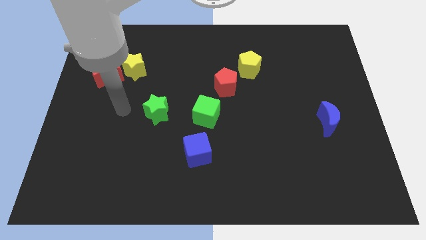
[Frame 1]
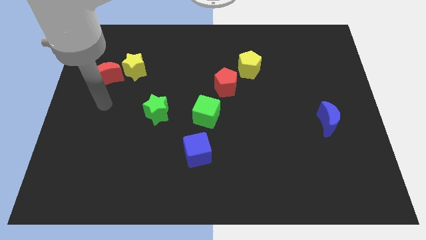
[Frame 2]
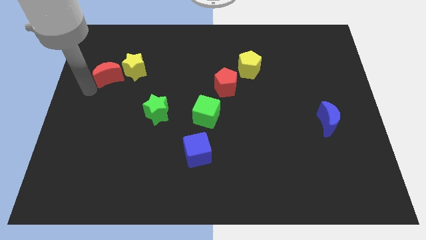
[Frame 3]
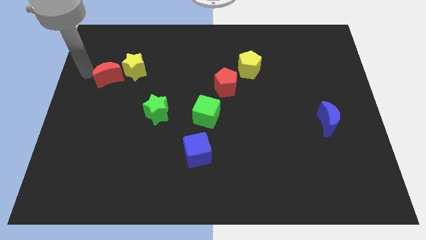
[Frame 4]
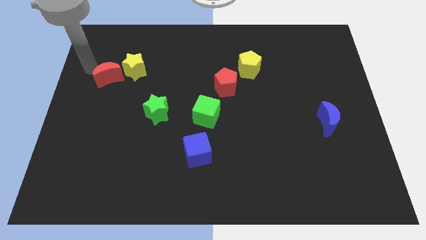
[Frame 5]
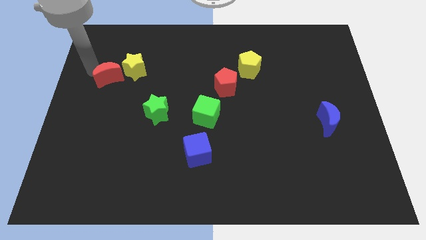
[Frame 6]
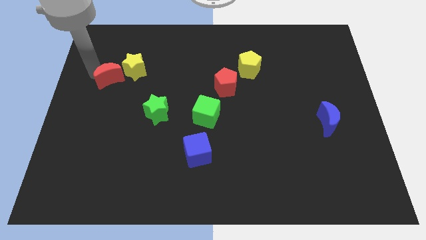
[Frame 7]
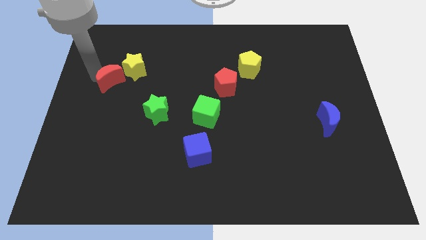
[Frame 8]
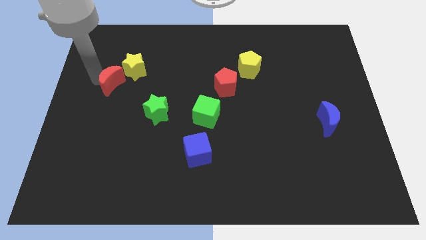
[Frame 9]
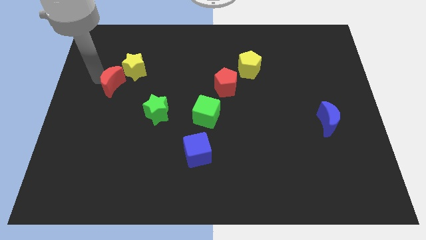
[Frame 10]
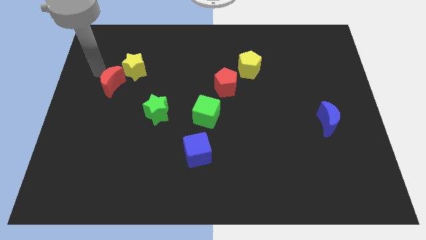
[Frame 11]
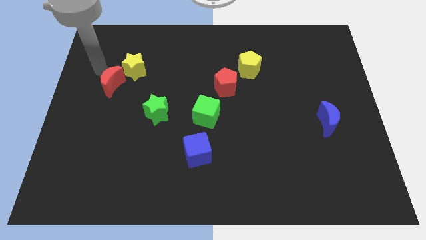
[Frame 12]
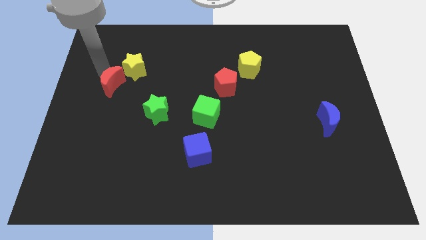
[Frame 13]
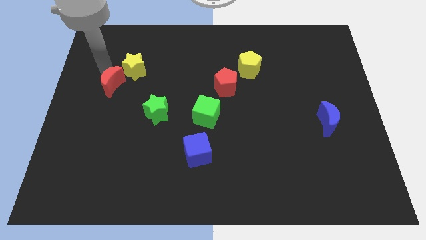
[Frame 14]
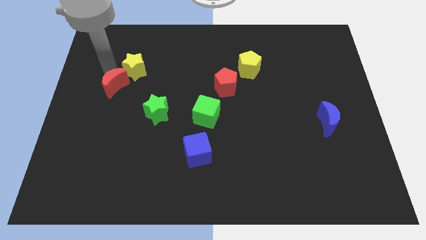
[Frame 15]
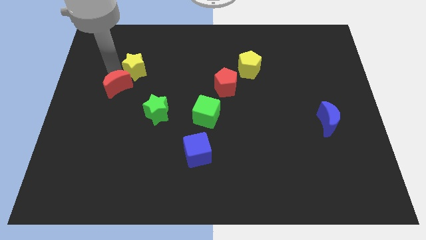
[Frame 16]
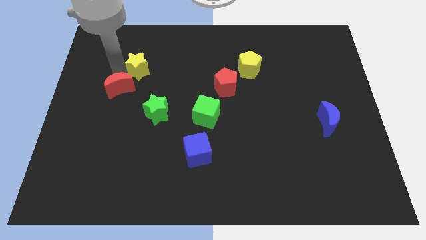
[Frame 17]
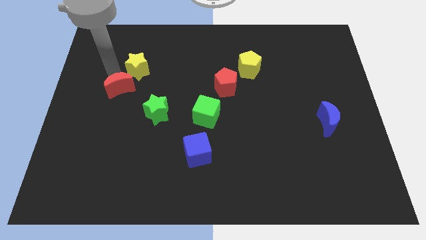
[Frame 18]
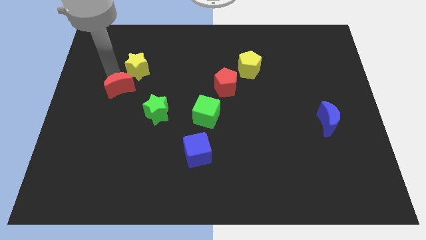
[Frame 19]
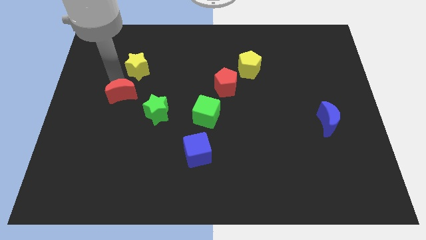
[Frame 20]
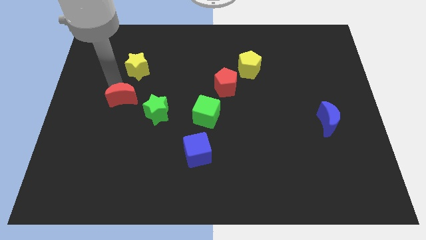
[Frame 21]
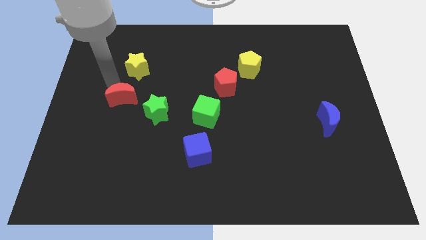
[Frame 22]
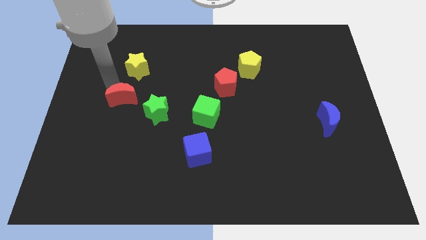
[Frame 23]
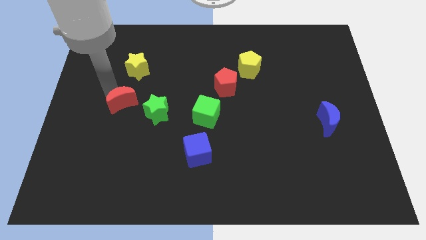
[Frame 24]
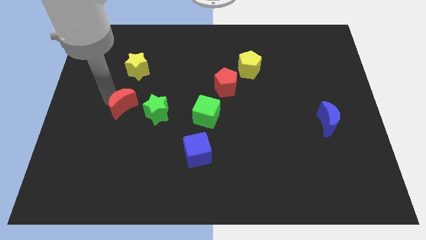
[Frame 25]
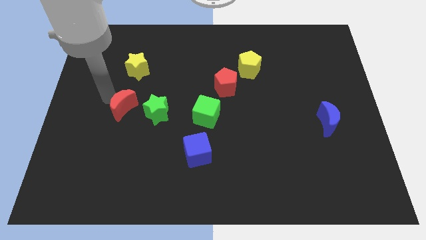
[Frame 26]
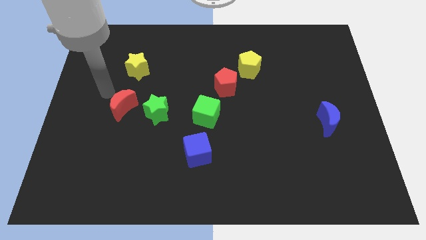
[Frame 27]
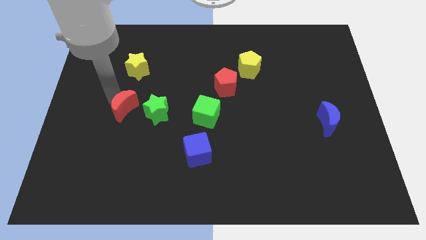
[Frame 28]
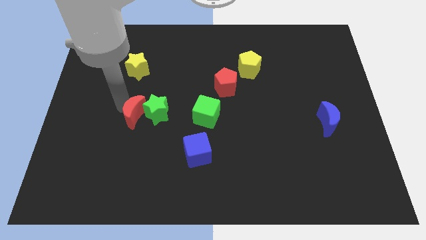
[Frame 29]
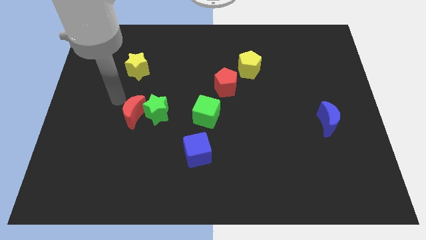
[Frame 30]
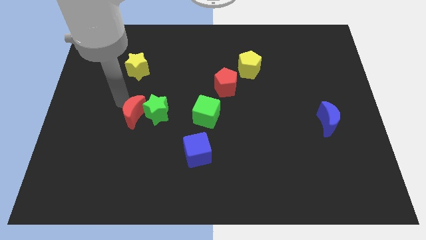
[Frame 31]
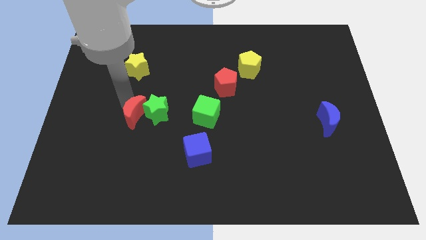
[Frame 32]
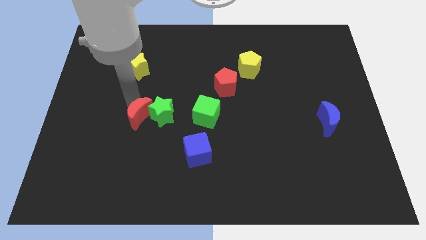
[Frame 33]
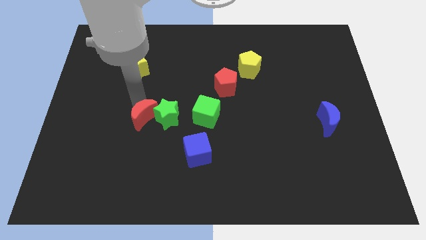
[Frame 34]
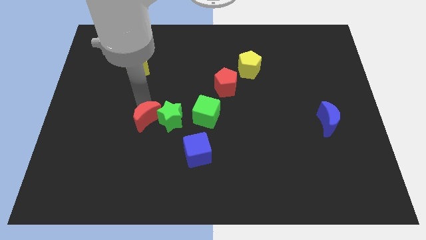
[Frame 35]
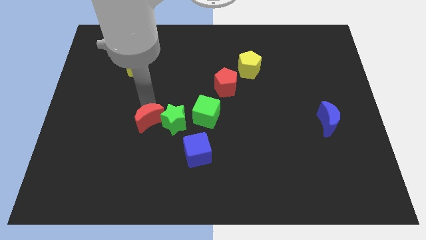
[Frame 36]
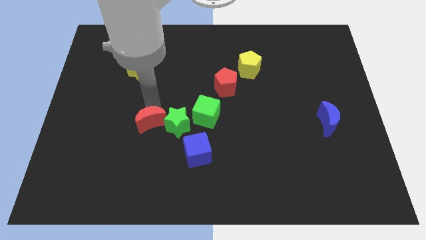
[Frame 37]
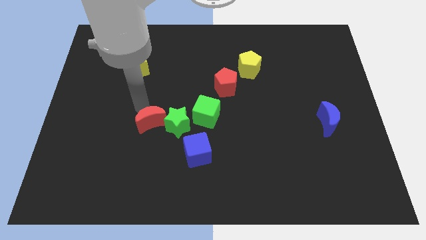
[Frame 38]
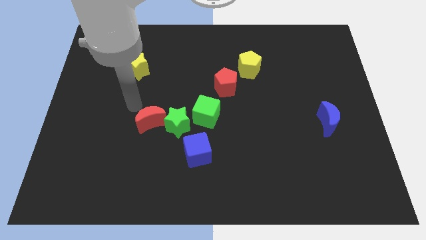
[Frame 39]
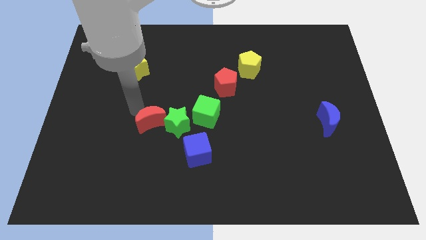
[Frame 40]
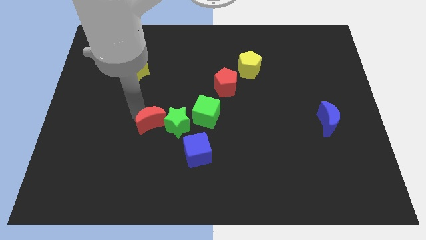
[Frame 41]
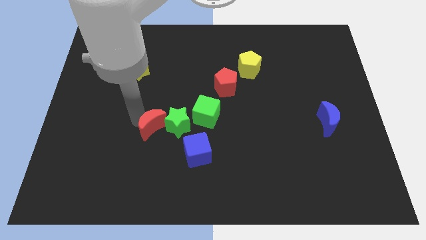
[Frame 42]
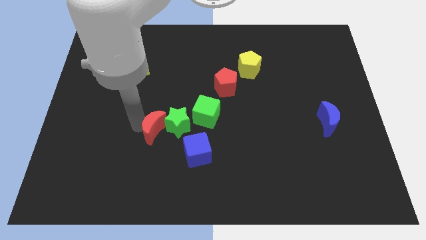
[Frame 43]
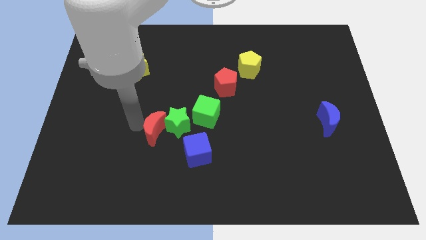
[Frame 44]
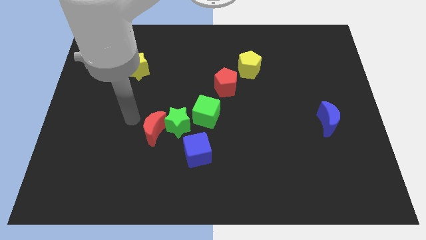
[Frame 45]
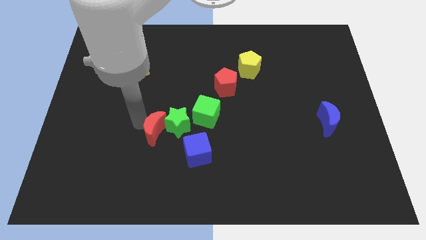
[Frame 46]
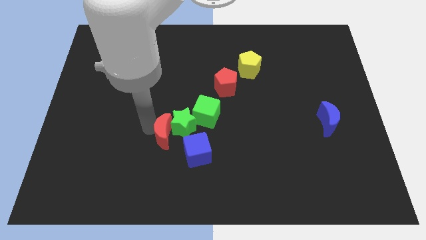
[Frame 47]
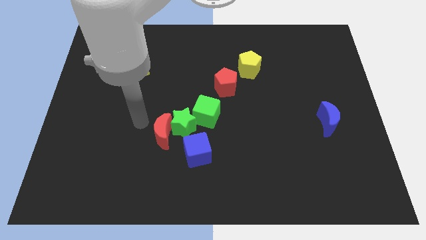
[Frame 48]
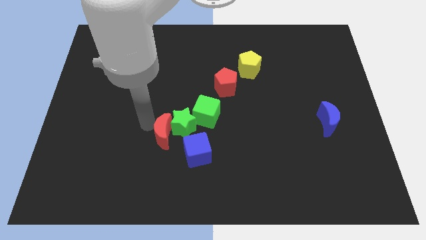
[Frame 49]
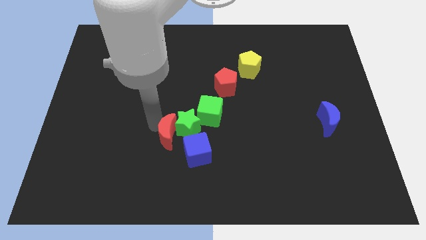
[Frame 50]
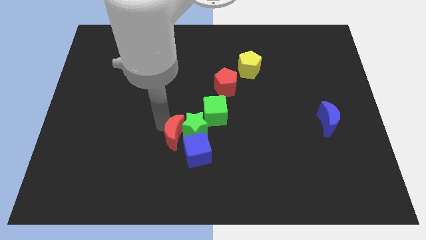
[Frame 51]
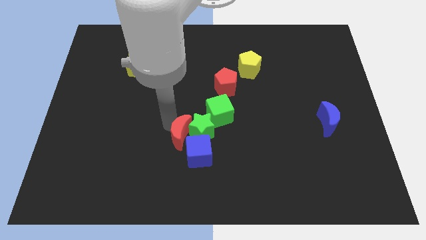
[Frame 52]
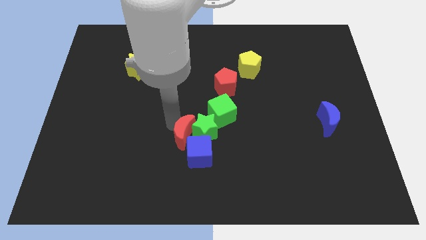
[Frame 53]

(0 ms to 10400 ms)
slide the red moon to the blue cube

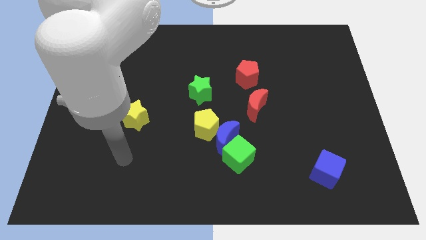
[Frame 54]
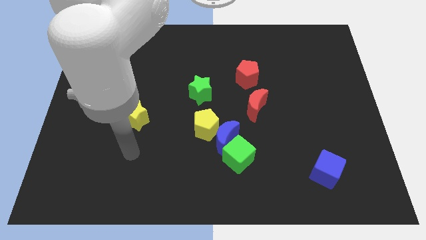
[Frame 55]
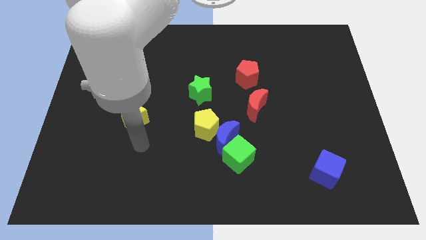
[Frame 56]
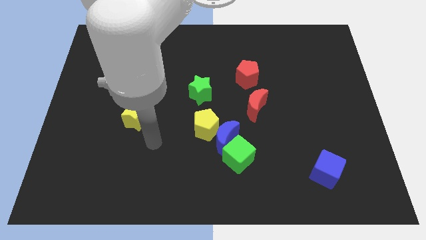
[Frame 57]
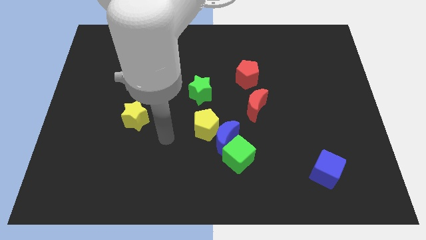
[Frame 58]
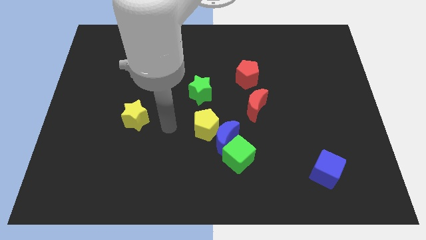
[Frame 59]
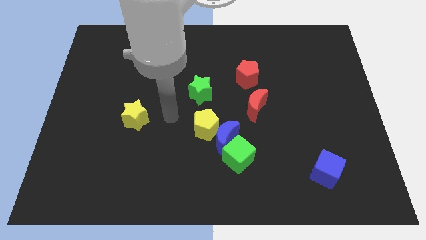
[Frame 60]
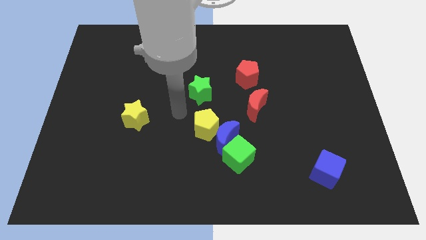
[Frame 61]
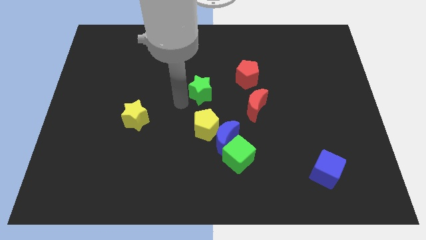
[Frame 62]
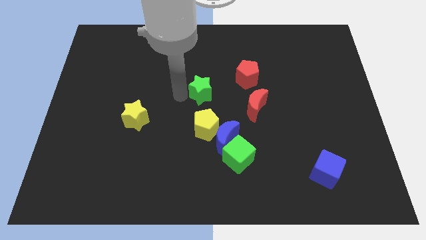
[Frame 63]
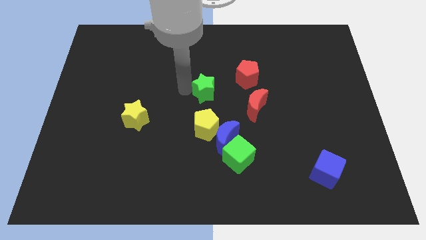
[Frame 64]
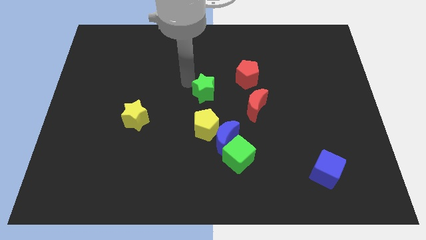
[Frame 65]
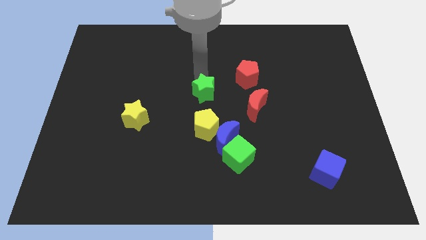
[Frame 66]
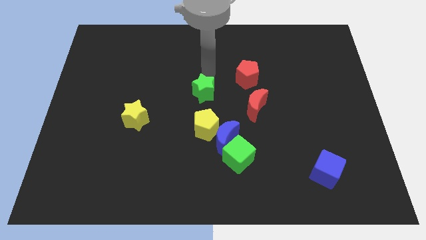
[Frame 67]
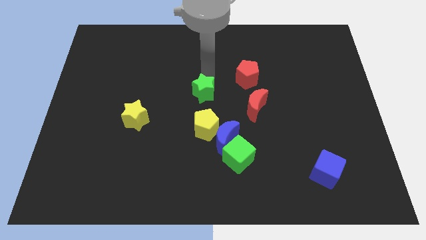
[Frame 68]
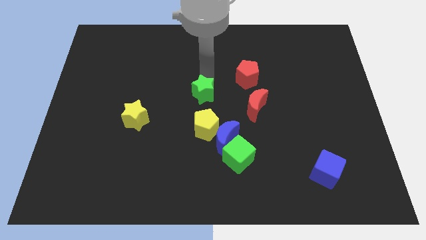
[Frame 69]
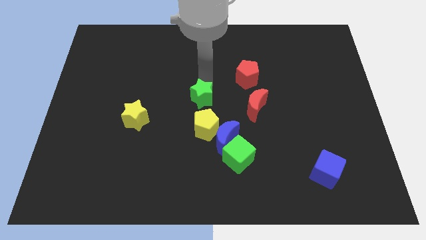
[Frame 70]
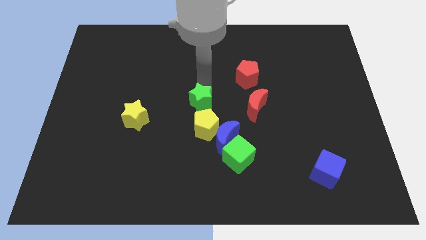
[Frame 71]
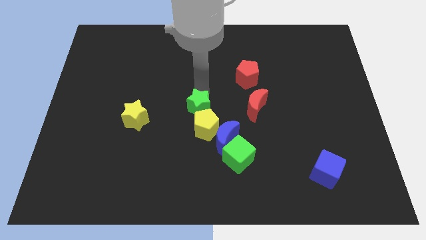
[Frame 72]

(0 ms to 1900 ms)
push the green star towards the yellow pentagon

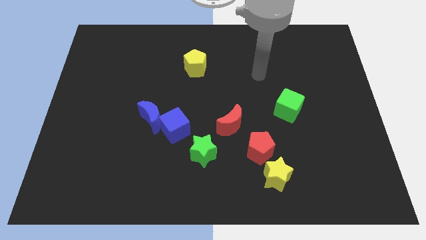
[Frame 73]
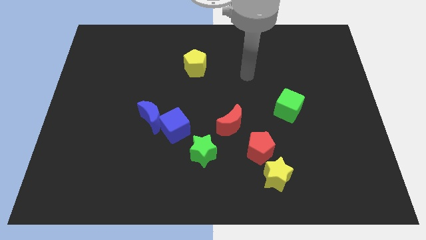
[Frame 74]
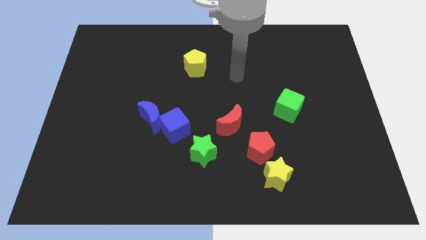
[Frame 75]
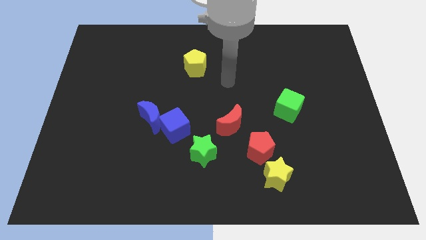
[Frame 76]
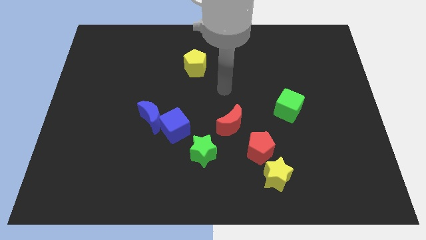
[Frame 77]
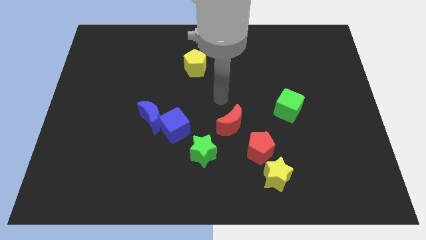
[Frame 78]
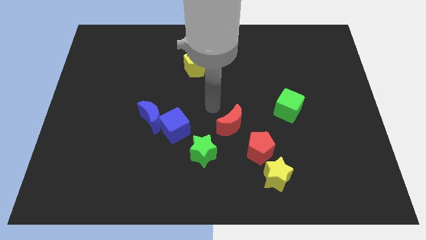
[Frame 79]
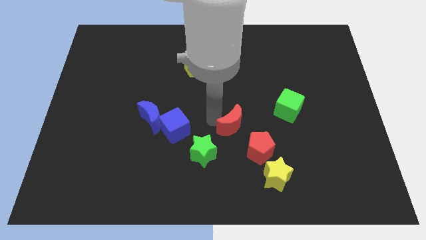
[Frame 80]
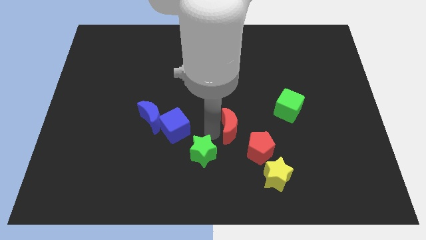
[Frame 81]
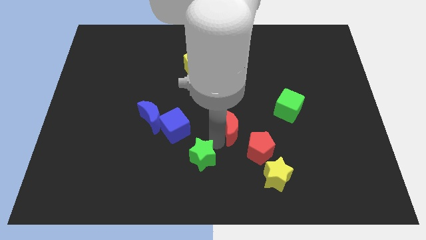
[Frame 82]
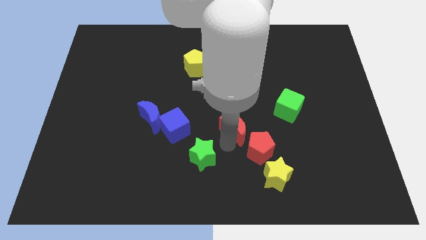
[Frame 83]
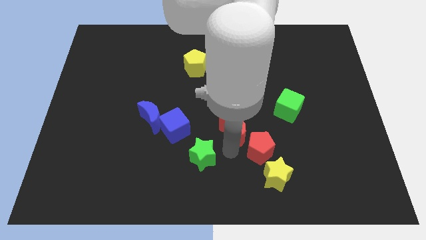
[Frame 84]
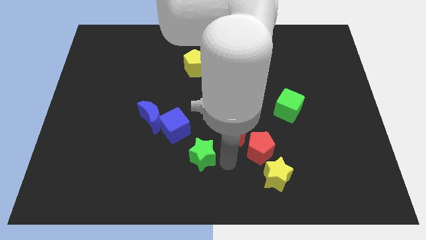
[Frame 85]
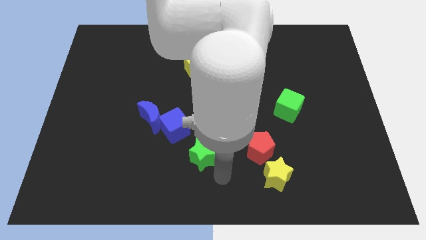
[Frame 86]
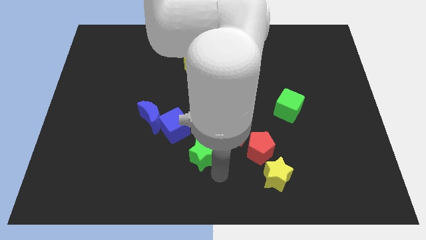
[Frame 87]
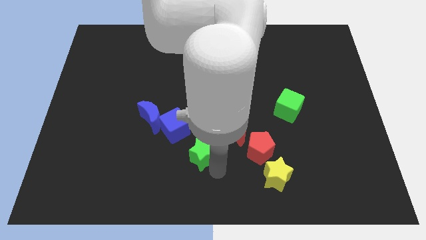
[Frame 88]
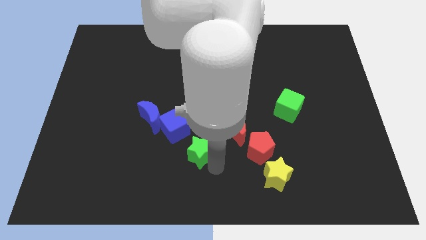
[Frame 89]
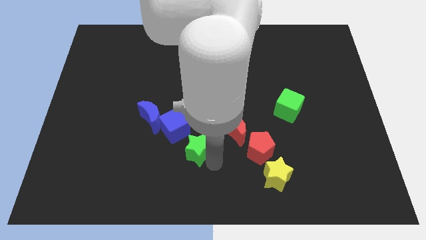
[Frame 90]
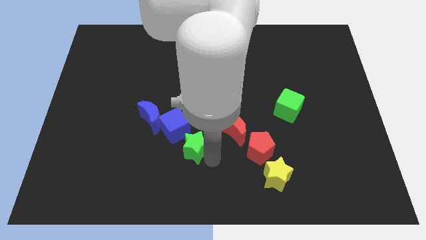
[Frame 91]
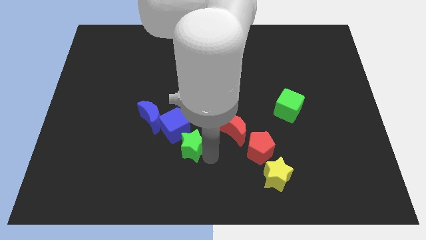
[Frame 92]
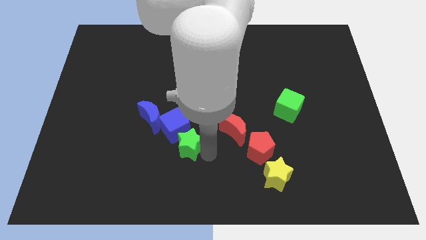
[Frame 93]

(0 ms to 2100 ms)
put the green star towards the blue cube
